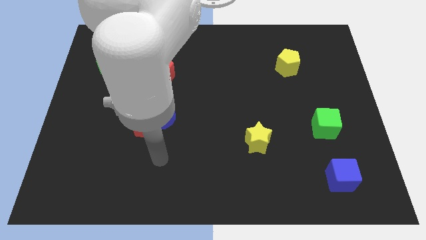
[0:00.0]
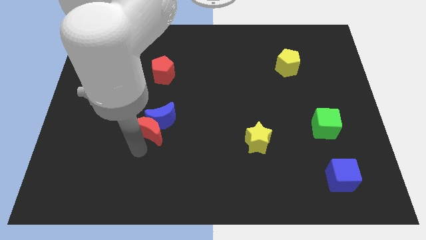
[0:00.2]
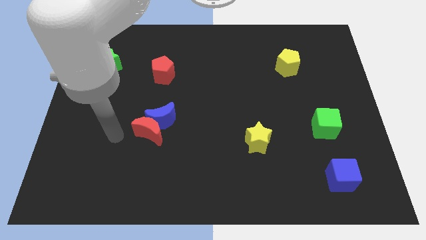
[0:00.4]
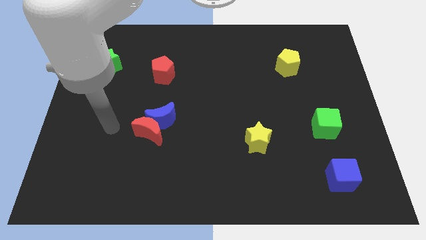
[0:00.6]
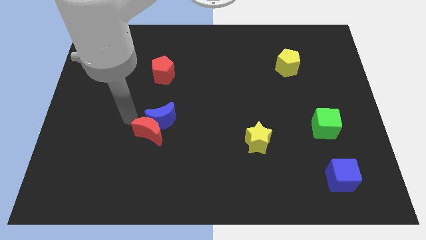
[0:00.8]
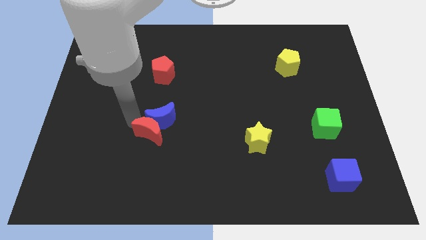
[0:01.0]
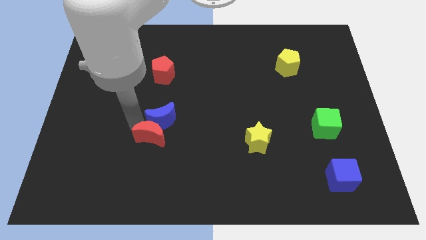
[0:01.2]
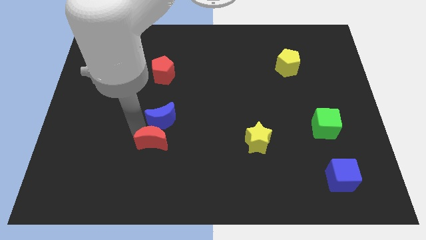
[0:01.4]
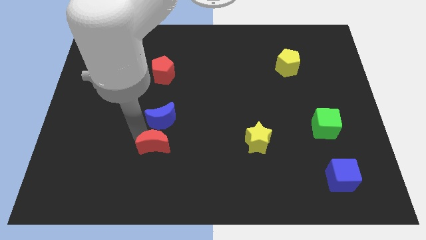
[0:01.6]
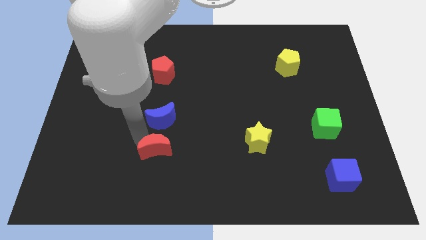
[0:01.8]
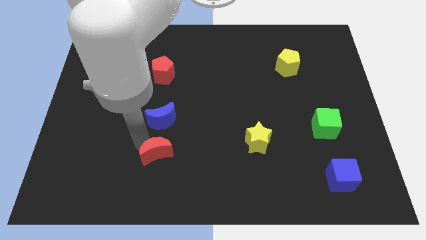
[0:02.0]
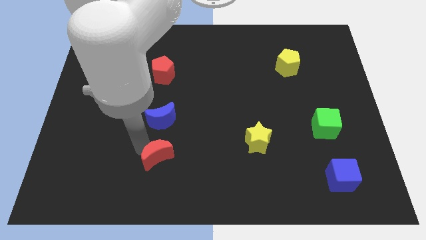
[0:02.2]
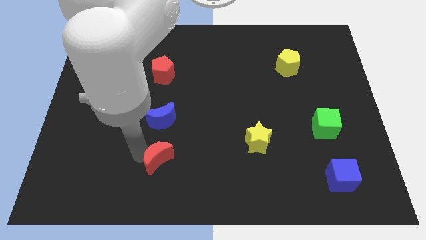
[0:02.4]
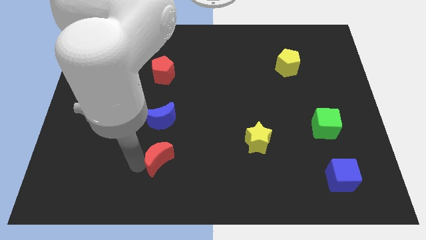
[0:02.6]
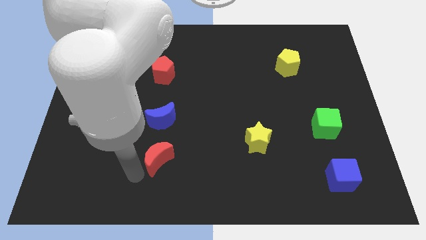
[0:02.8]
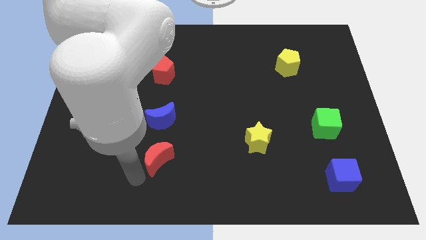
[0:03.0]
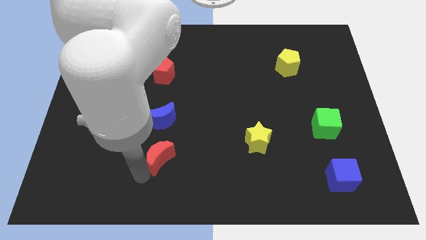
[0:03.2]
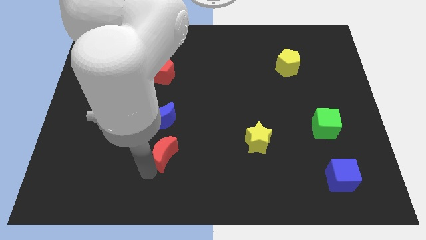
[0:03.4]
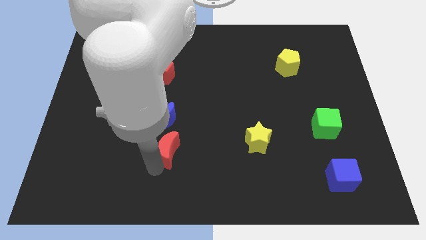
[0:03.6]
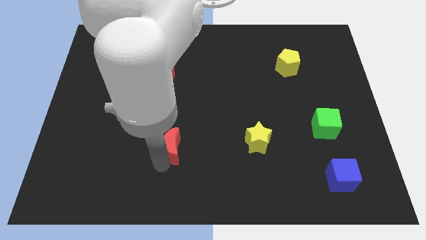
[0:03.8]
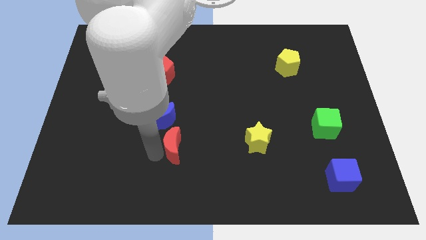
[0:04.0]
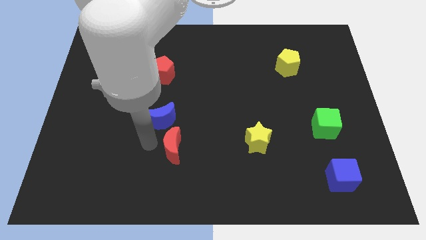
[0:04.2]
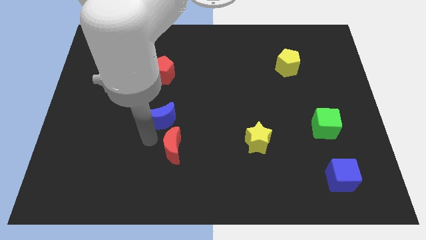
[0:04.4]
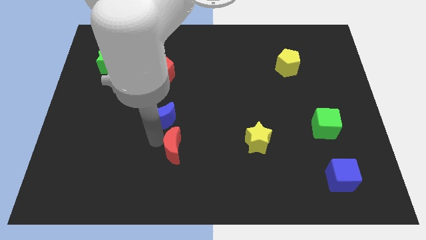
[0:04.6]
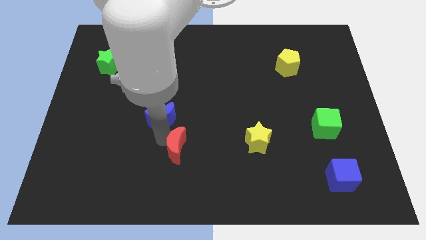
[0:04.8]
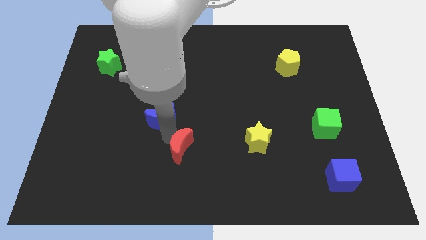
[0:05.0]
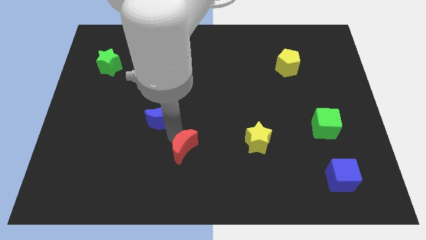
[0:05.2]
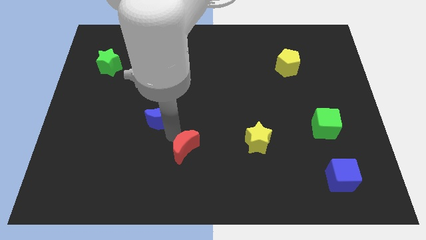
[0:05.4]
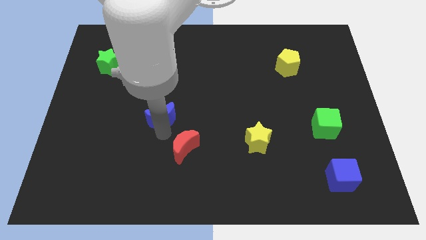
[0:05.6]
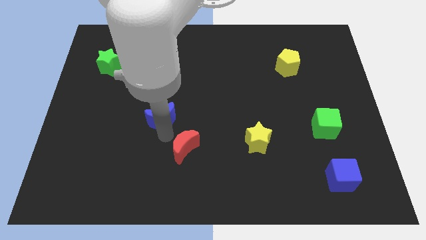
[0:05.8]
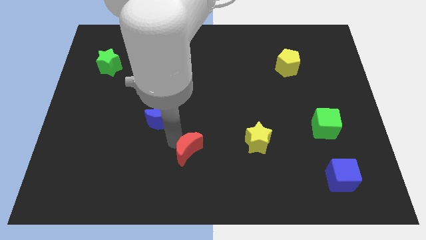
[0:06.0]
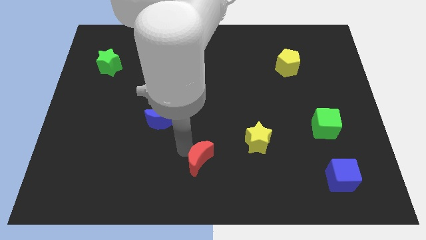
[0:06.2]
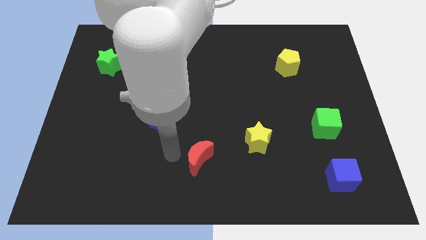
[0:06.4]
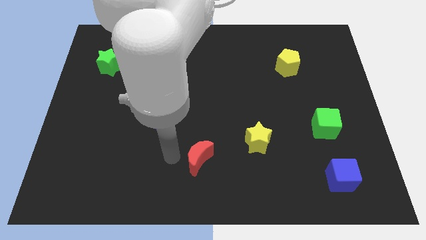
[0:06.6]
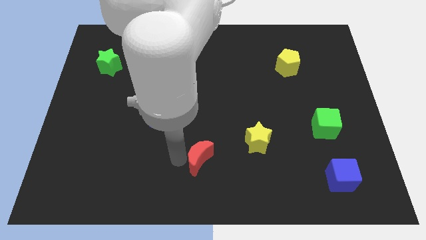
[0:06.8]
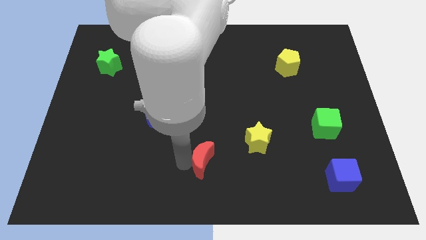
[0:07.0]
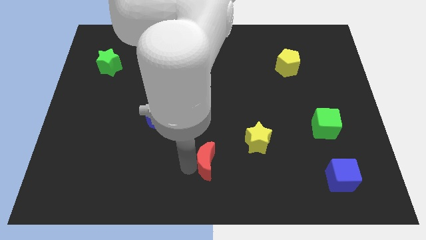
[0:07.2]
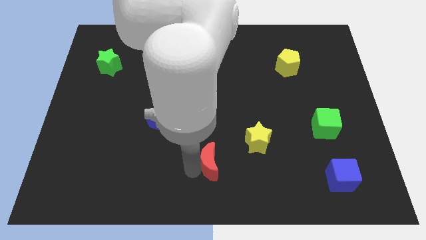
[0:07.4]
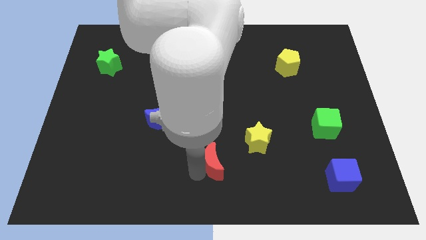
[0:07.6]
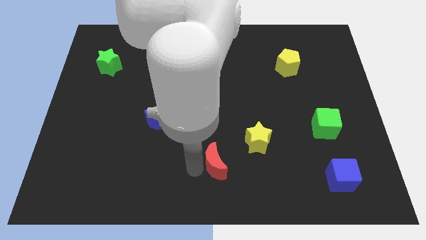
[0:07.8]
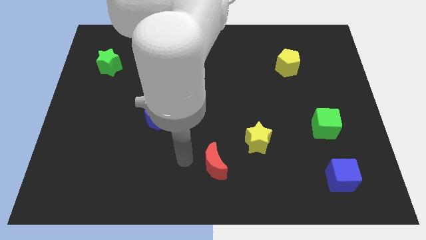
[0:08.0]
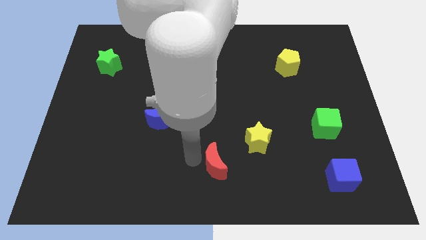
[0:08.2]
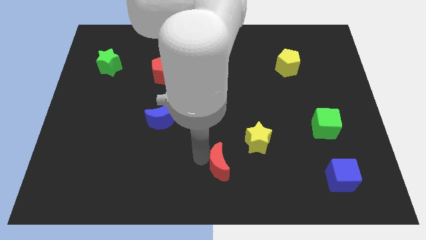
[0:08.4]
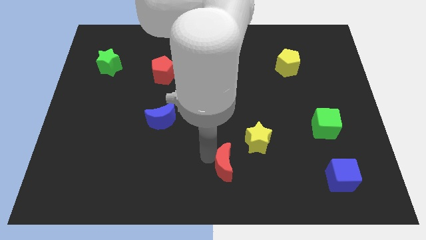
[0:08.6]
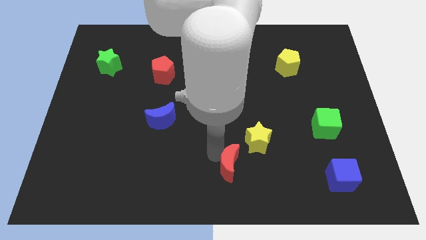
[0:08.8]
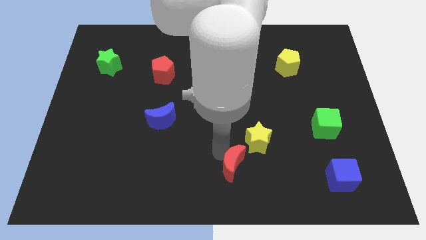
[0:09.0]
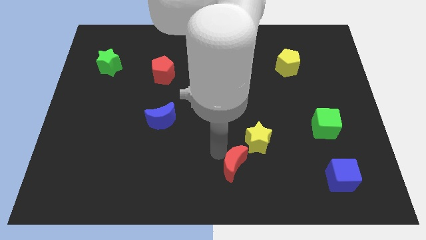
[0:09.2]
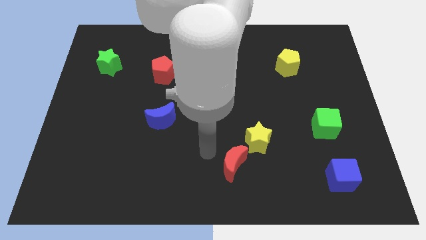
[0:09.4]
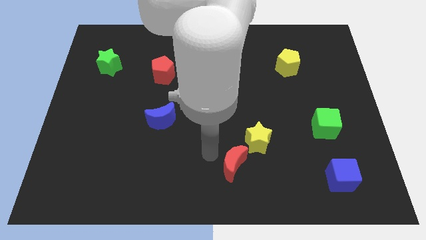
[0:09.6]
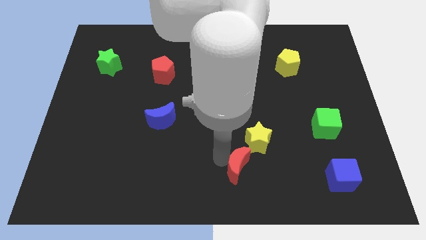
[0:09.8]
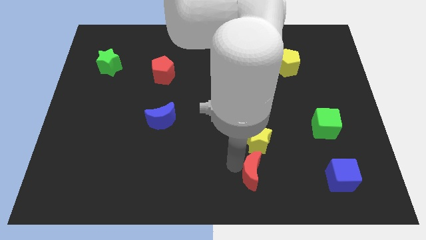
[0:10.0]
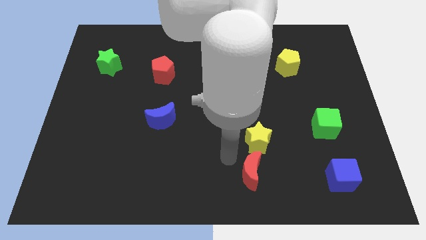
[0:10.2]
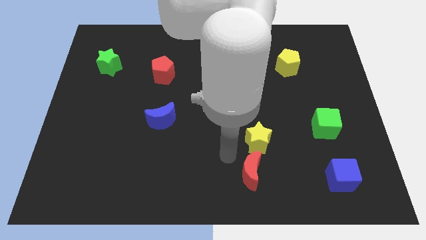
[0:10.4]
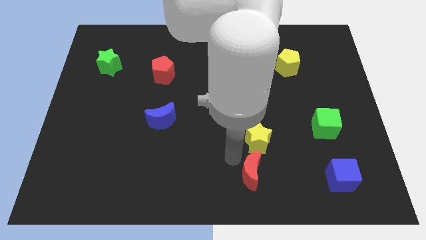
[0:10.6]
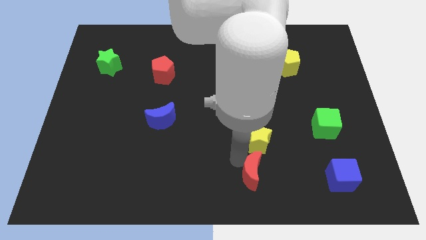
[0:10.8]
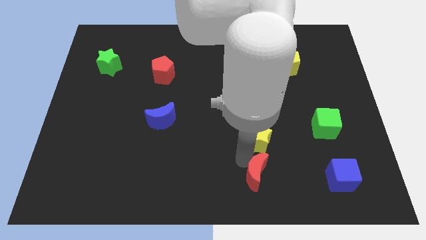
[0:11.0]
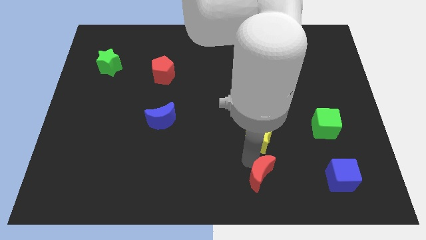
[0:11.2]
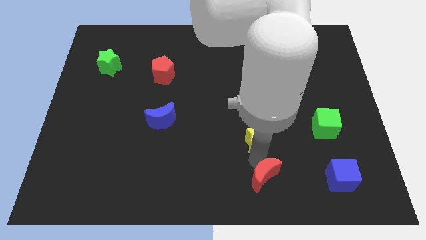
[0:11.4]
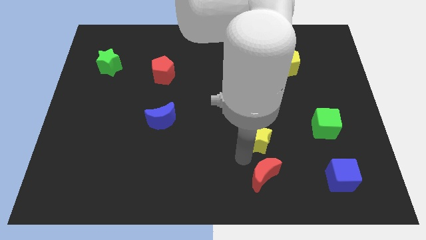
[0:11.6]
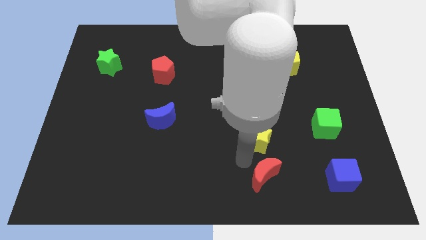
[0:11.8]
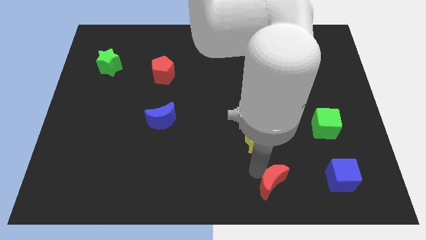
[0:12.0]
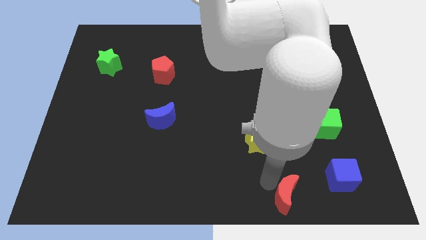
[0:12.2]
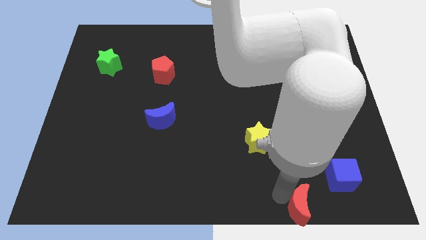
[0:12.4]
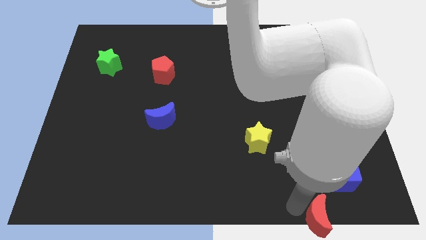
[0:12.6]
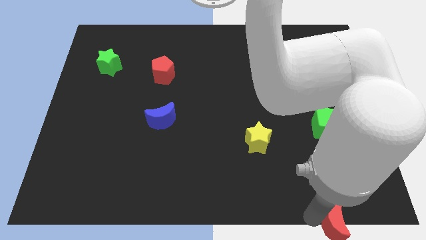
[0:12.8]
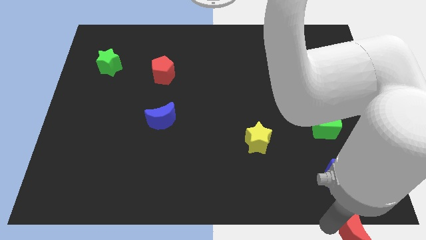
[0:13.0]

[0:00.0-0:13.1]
move the red moon to the bottom right of the board

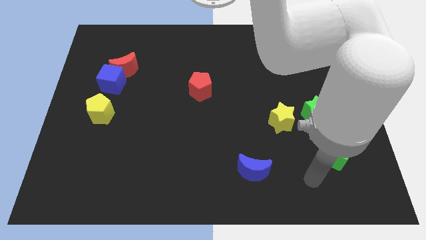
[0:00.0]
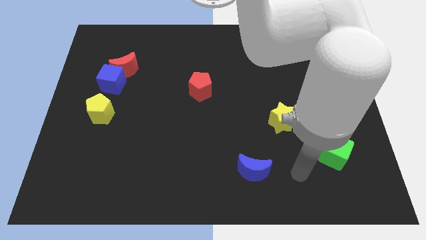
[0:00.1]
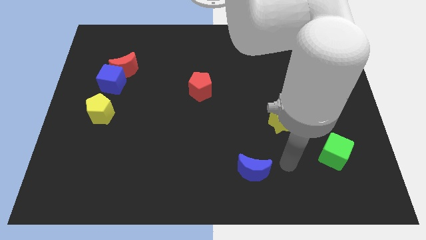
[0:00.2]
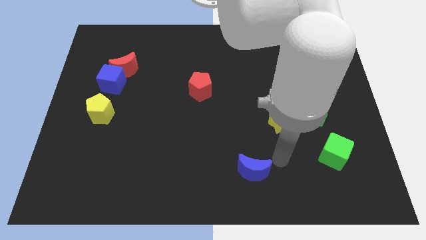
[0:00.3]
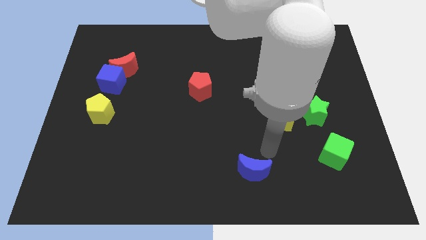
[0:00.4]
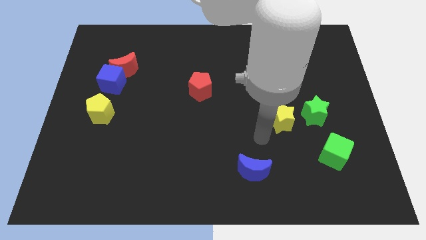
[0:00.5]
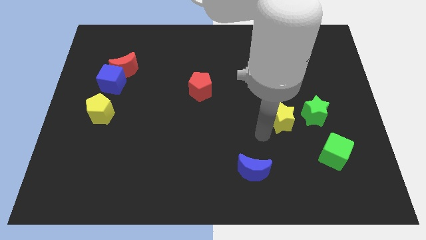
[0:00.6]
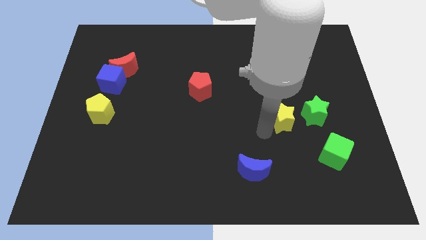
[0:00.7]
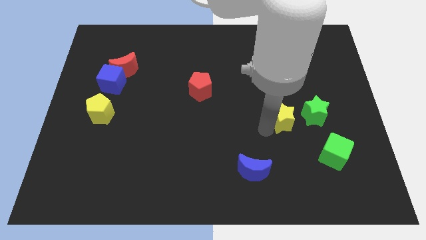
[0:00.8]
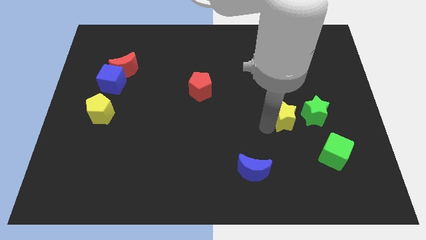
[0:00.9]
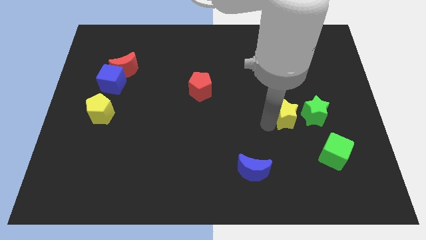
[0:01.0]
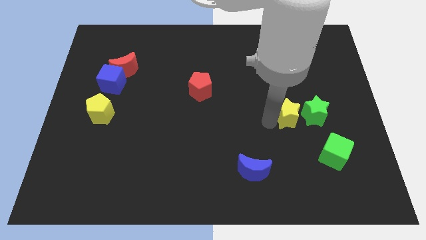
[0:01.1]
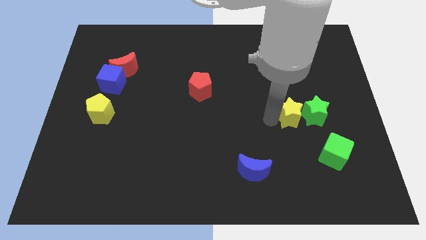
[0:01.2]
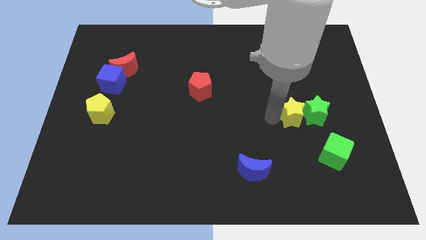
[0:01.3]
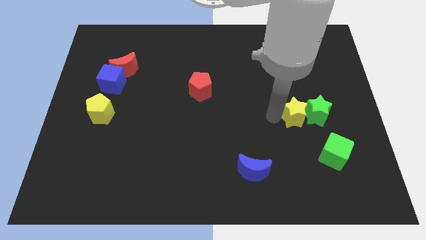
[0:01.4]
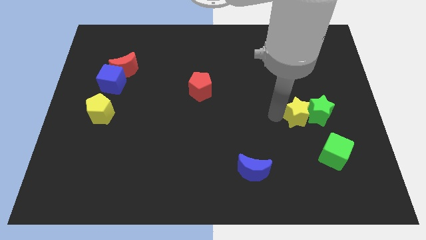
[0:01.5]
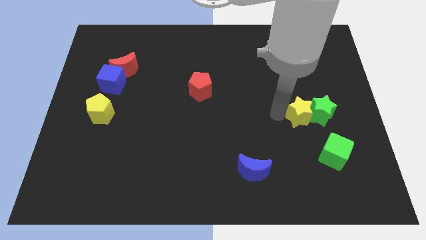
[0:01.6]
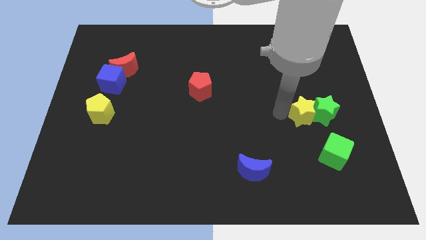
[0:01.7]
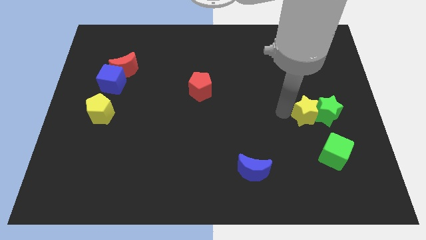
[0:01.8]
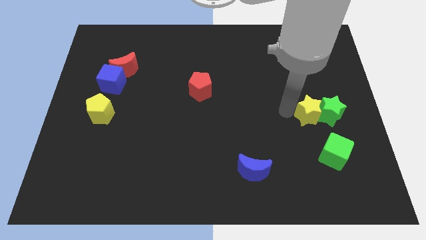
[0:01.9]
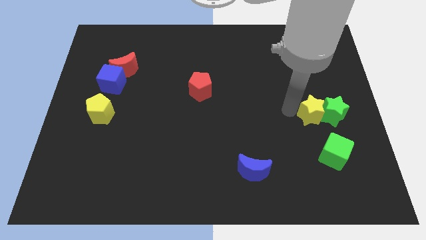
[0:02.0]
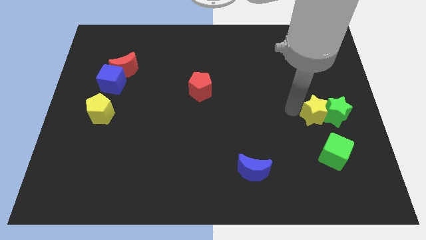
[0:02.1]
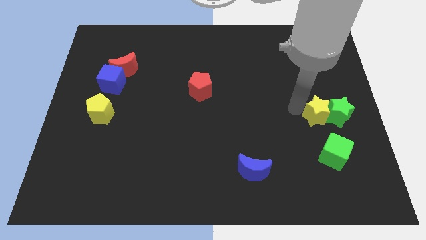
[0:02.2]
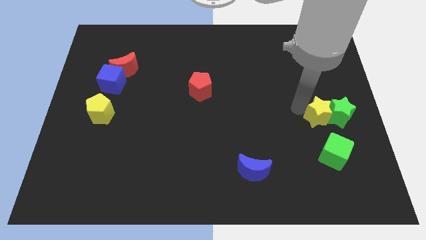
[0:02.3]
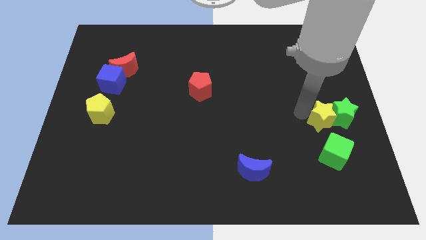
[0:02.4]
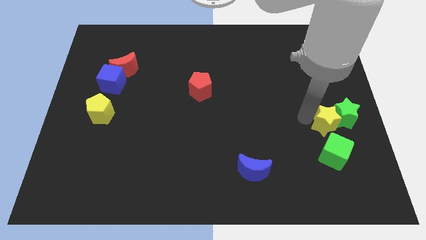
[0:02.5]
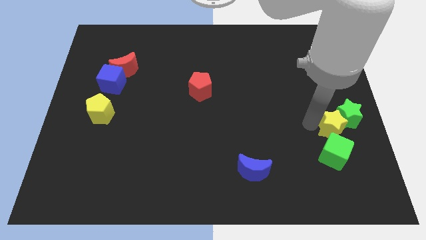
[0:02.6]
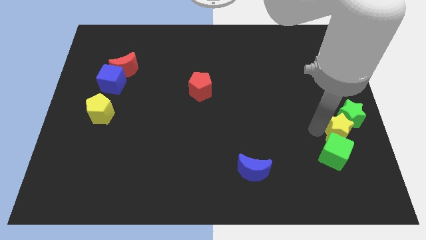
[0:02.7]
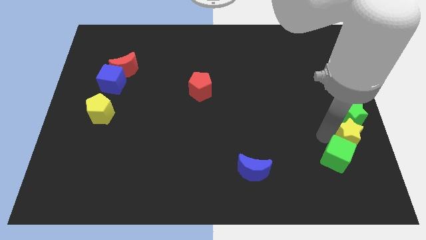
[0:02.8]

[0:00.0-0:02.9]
slide the yellow star to the center right
